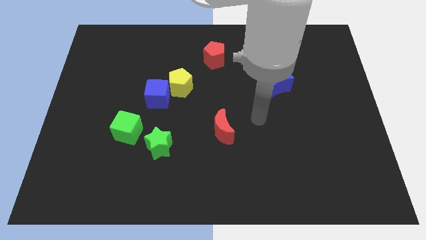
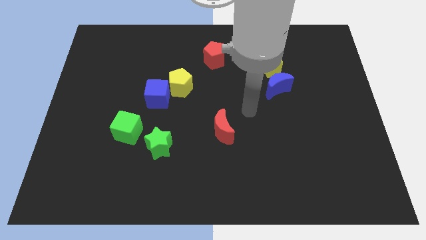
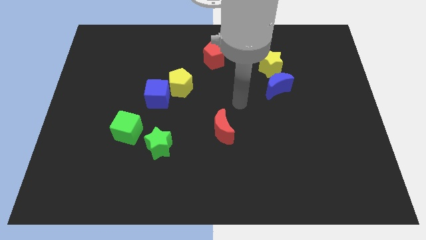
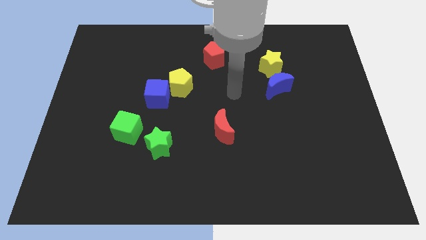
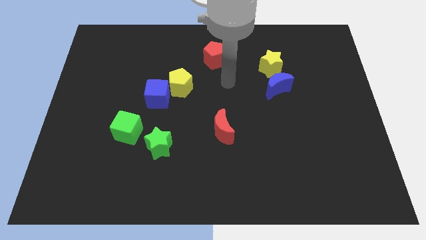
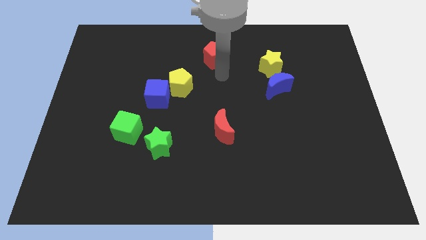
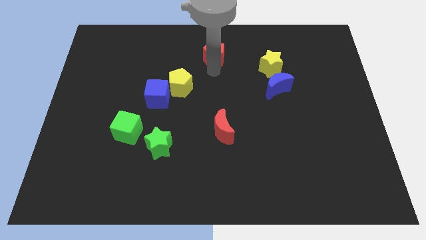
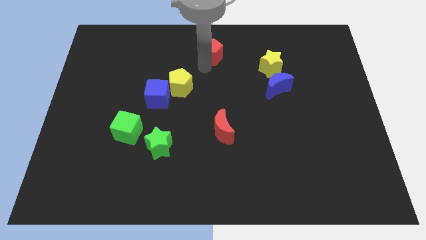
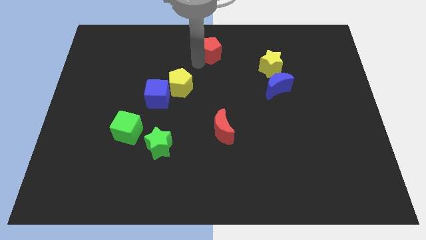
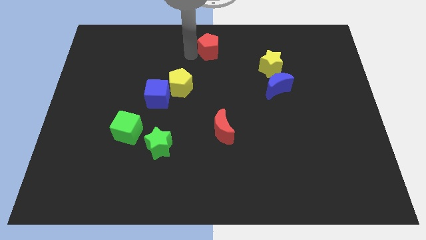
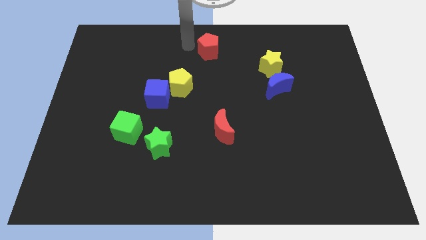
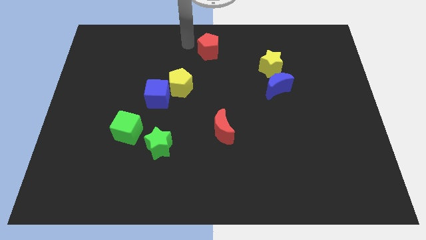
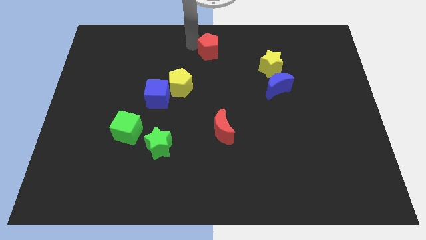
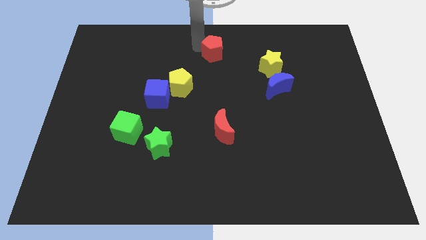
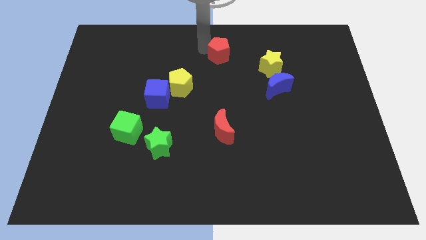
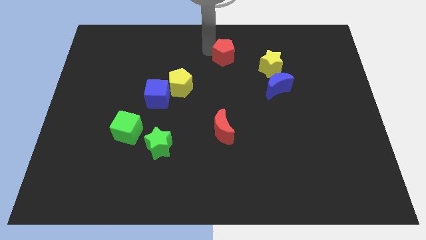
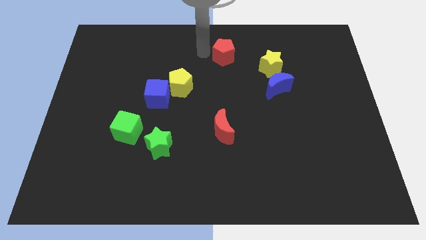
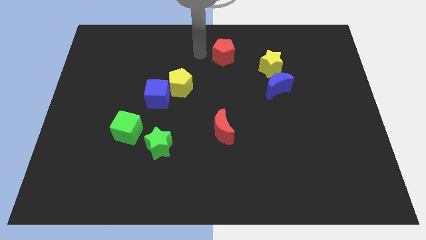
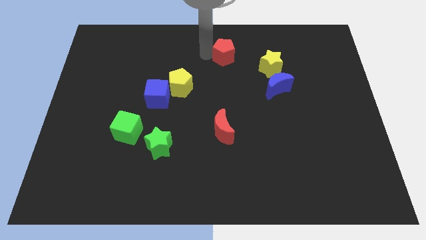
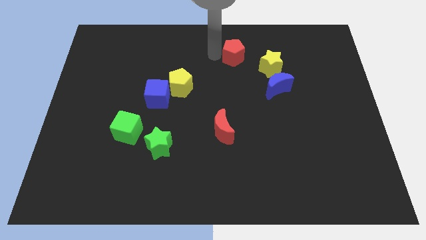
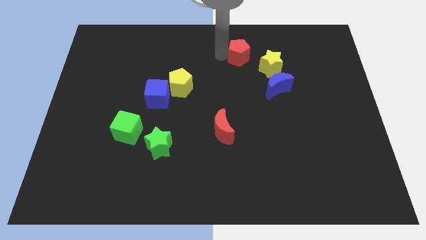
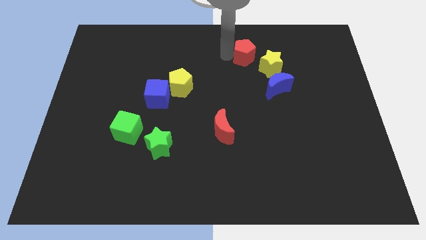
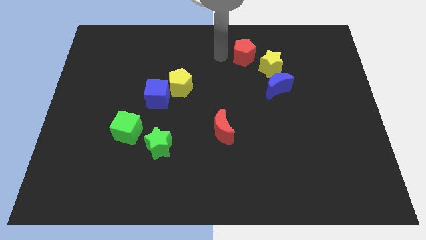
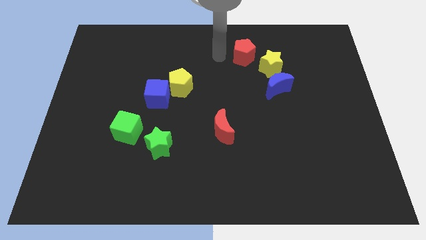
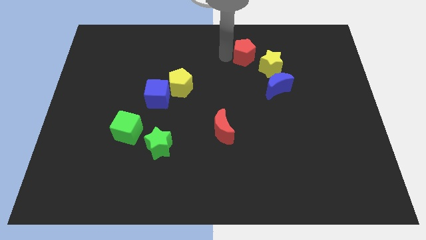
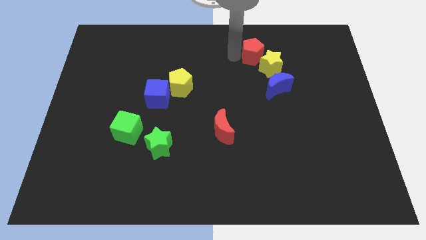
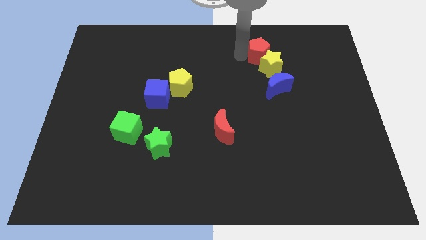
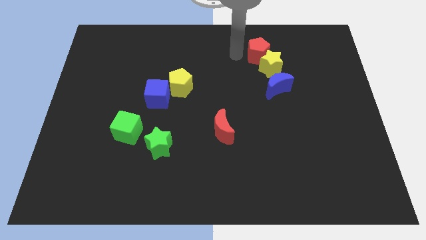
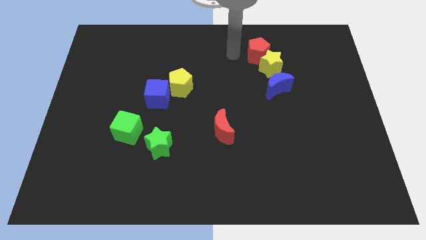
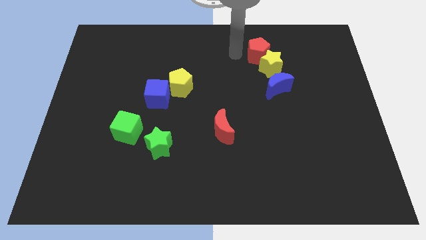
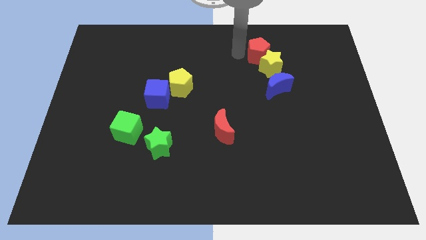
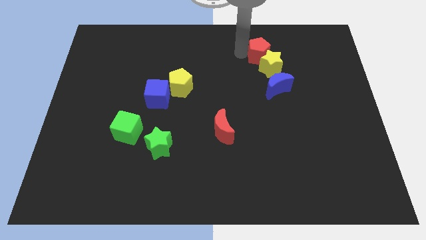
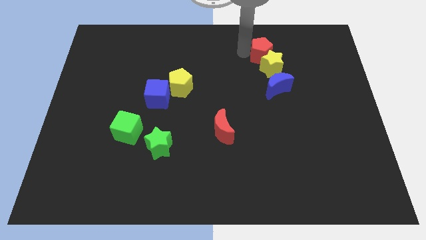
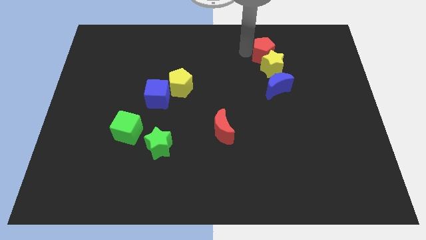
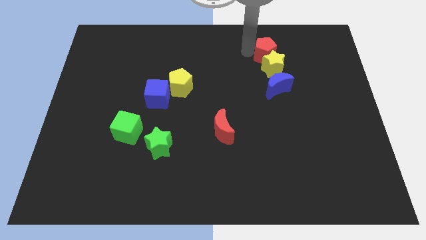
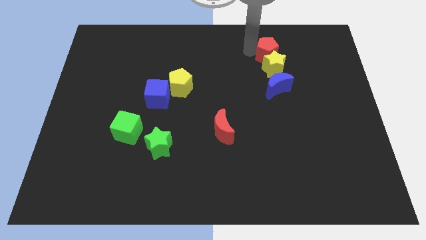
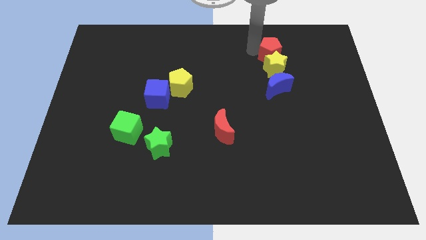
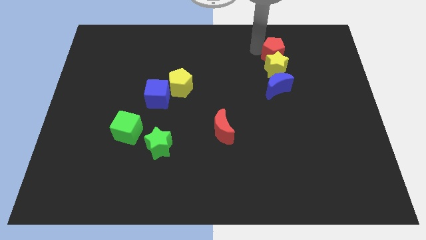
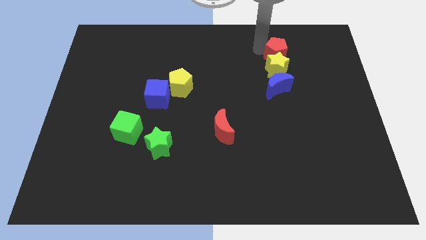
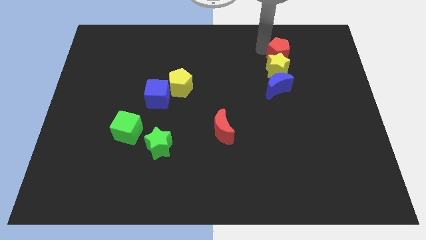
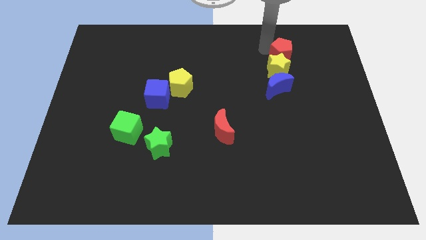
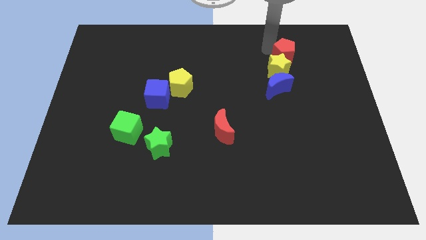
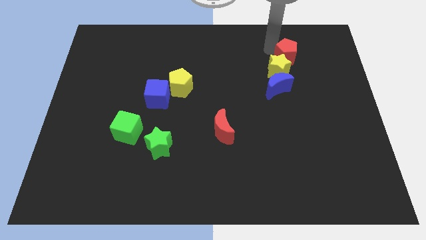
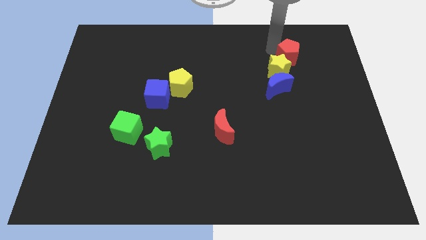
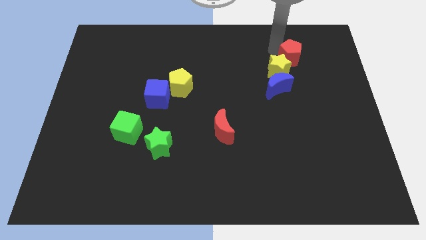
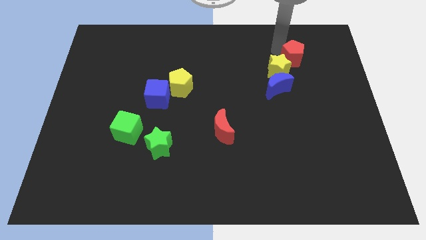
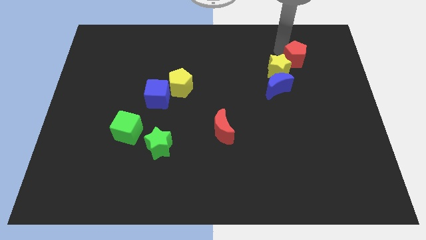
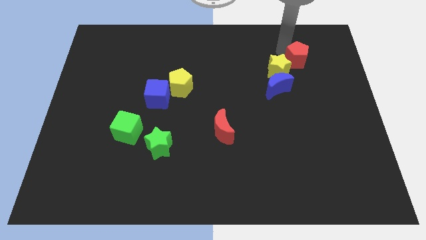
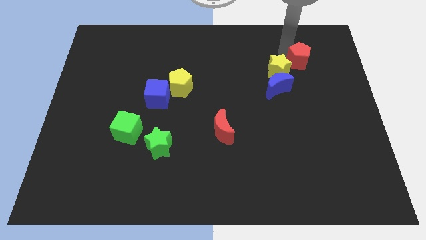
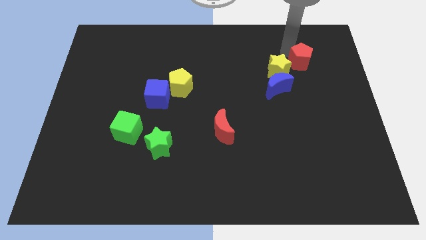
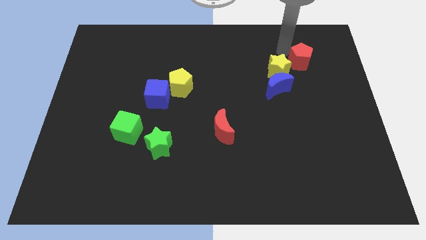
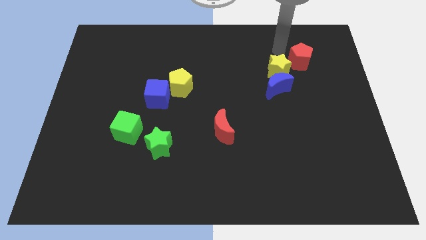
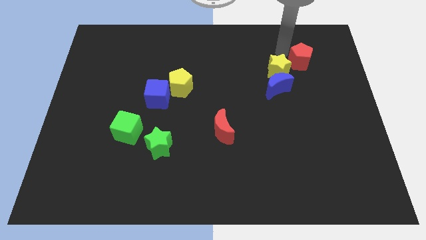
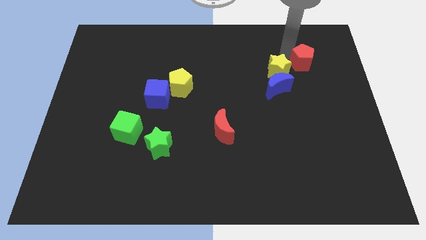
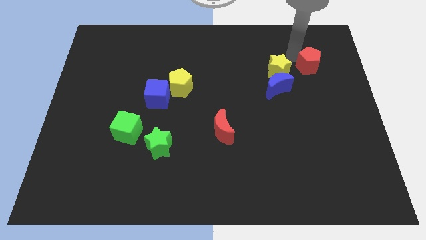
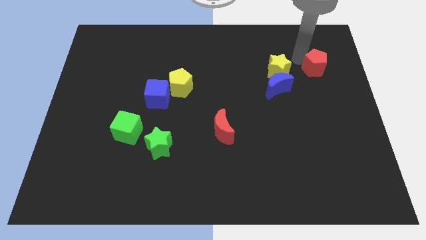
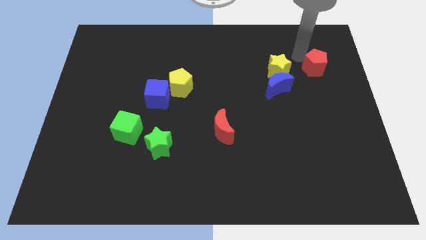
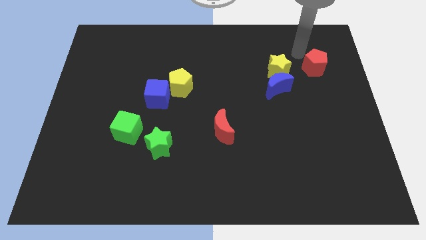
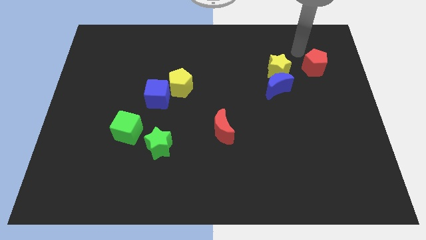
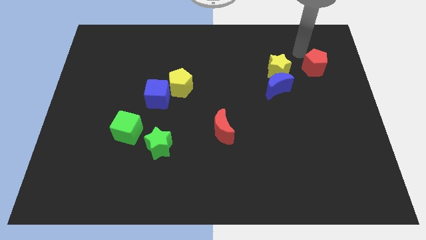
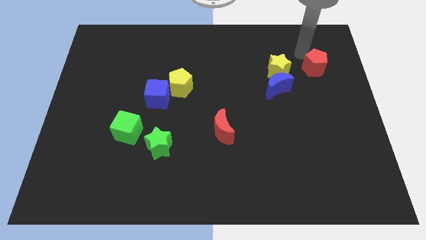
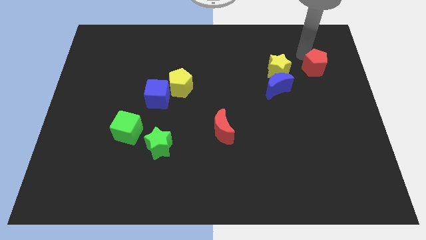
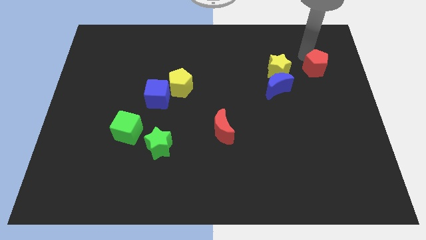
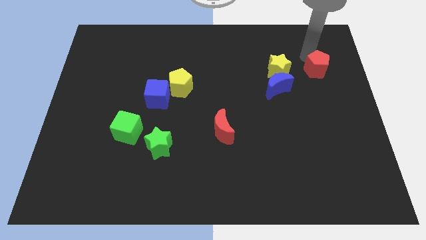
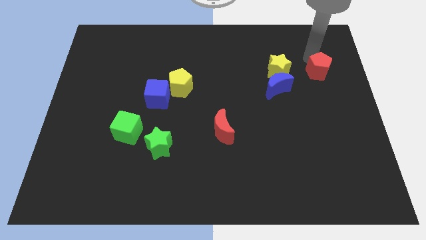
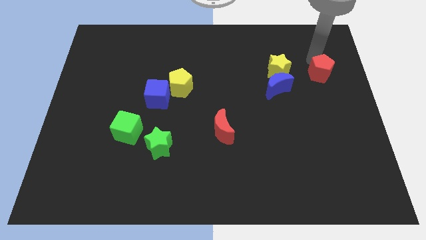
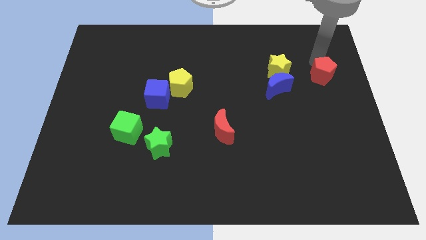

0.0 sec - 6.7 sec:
put the red pentagon to the right side of the board

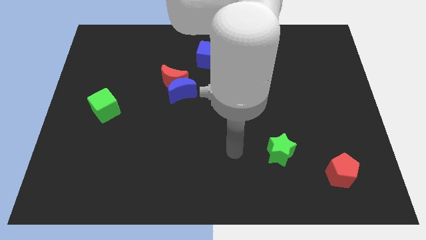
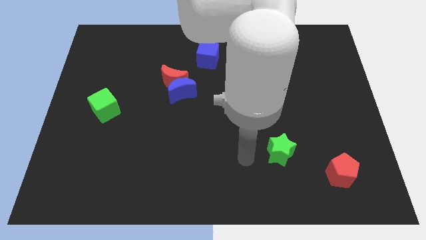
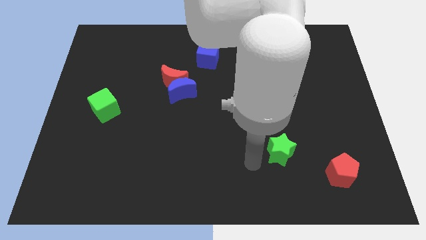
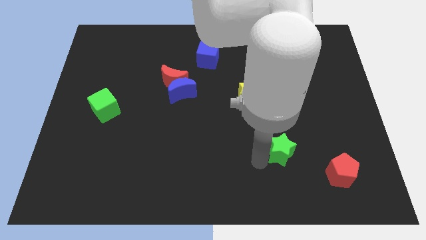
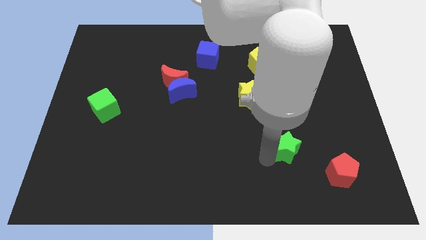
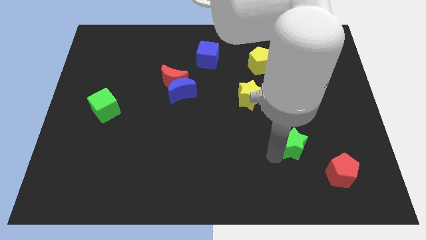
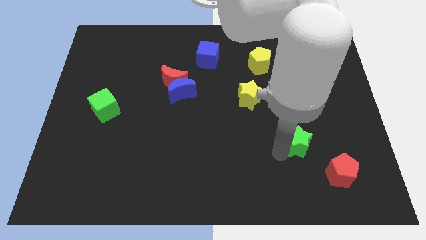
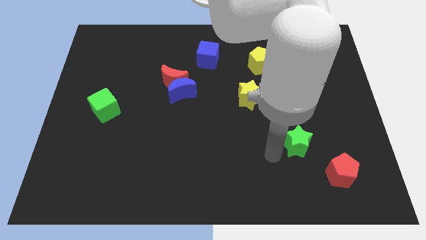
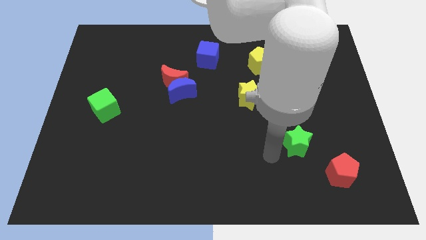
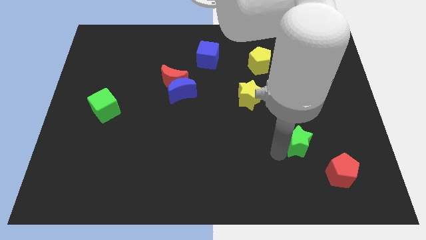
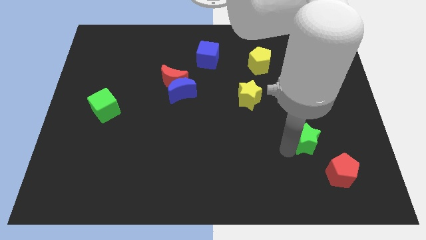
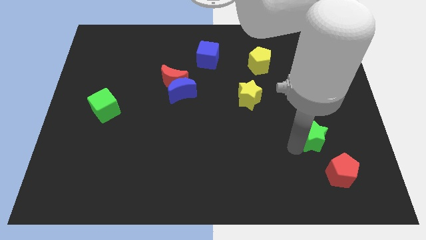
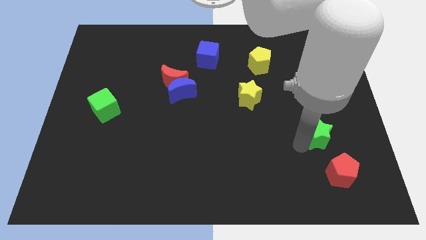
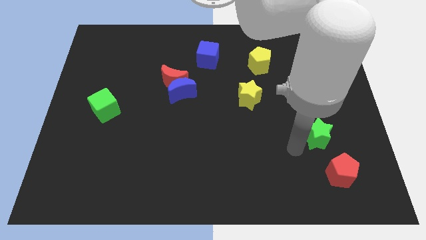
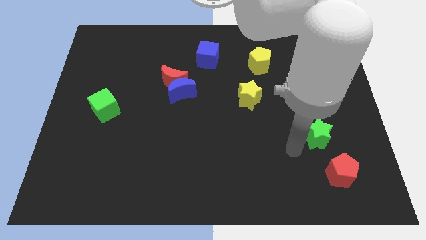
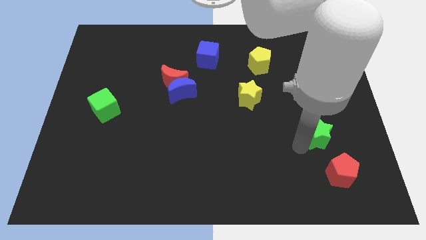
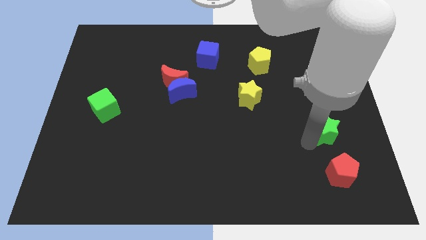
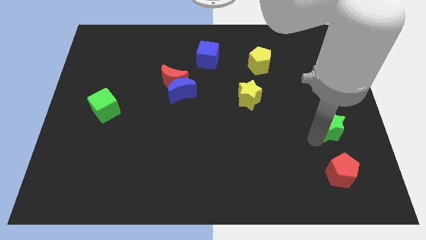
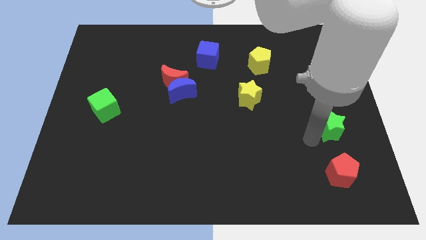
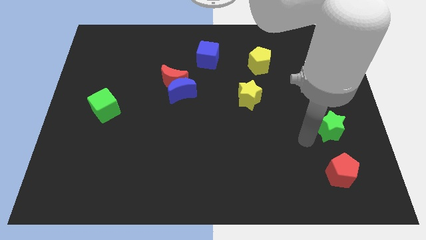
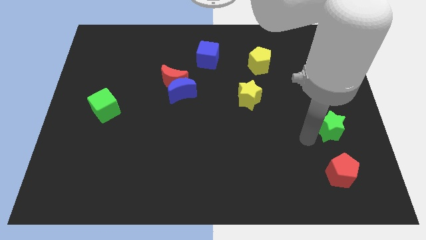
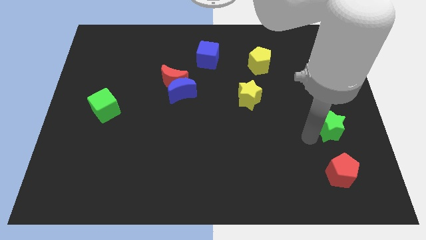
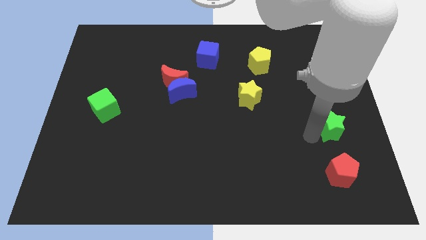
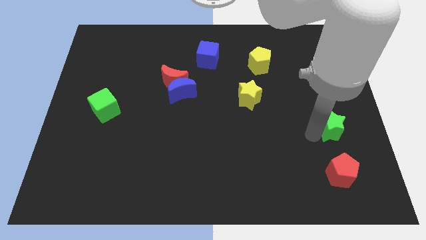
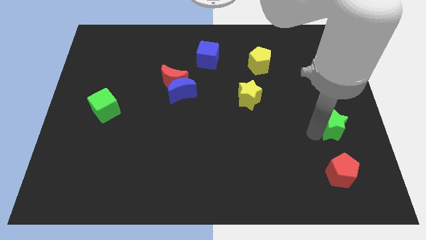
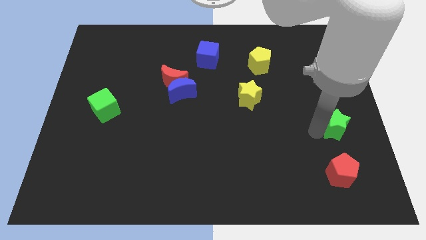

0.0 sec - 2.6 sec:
push the green star to the right side
